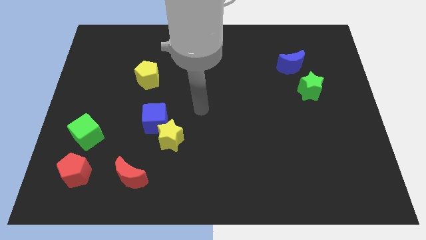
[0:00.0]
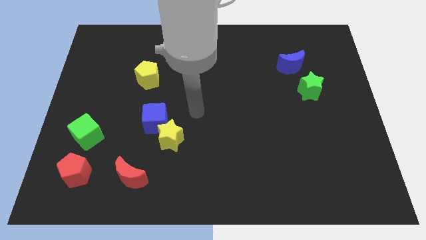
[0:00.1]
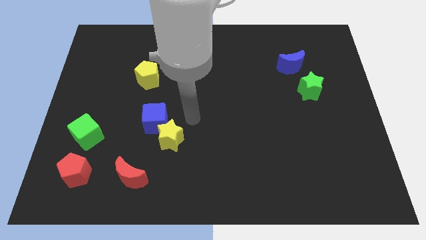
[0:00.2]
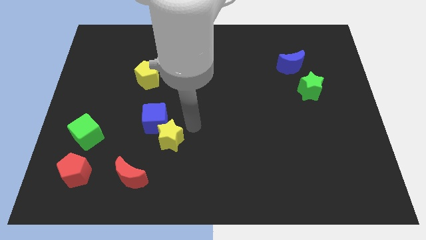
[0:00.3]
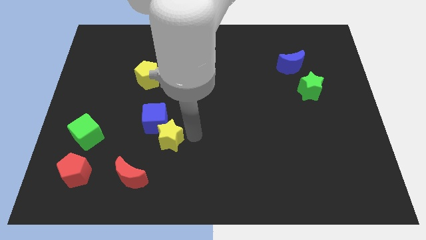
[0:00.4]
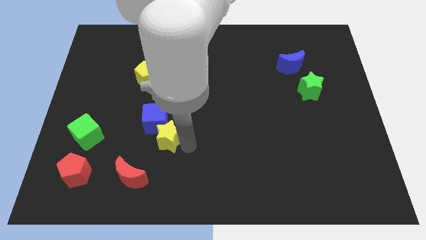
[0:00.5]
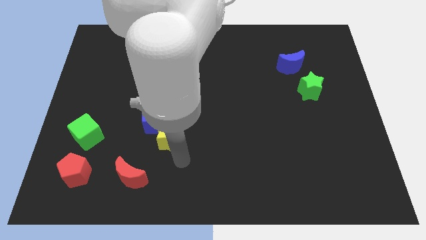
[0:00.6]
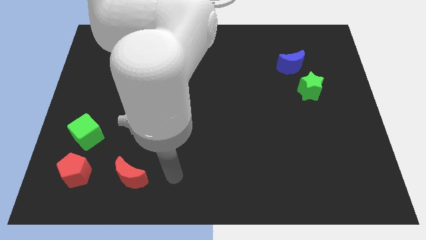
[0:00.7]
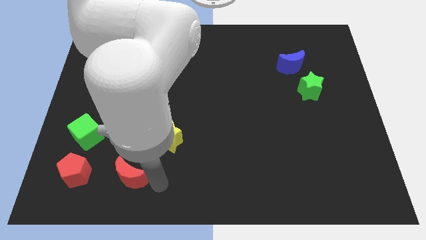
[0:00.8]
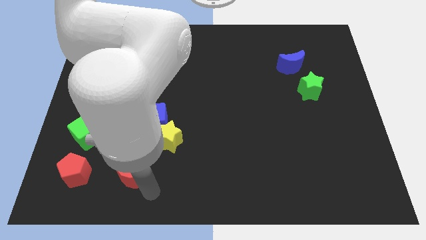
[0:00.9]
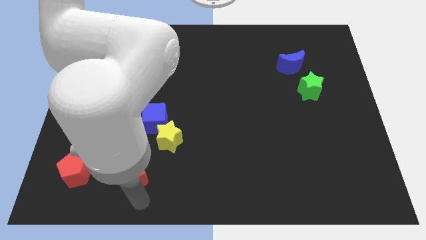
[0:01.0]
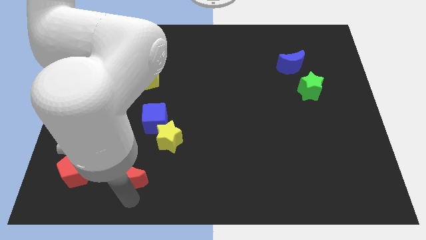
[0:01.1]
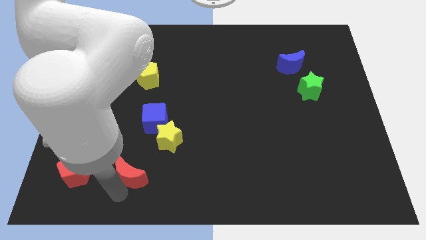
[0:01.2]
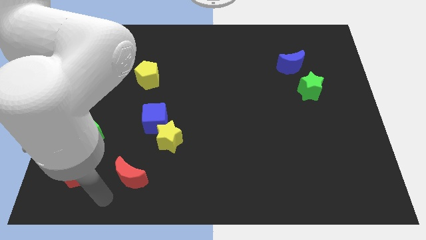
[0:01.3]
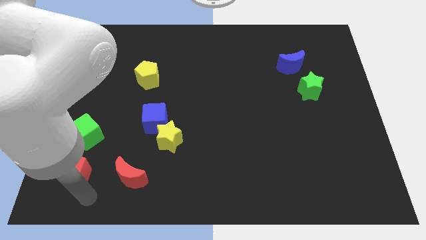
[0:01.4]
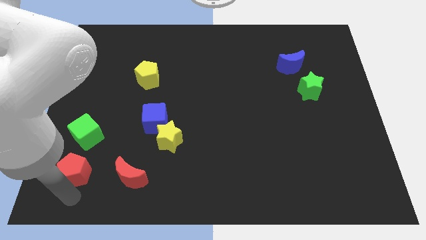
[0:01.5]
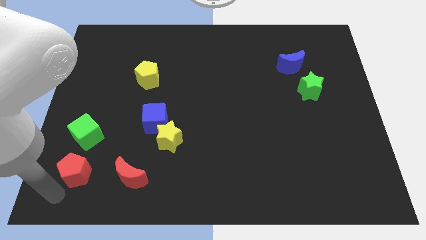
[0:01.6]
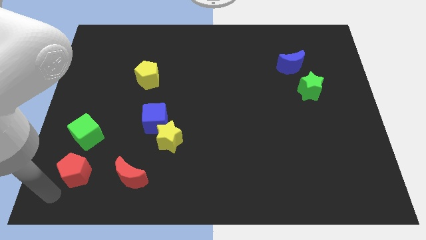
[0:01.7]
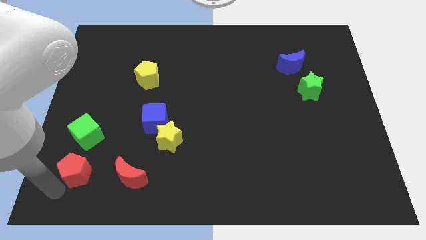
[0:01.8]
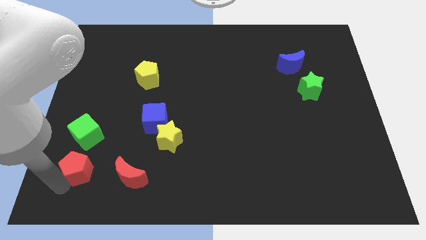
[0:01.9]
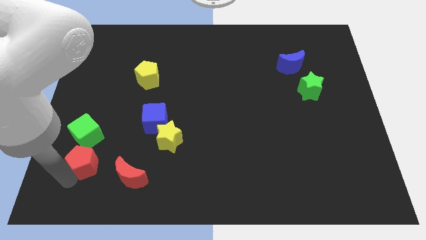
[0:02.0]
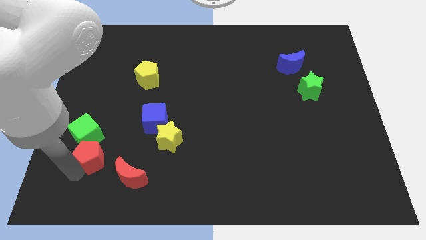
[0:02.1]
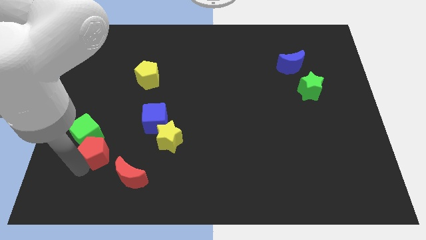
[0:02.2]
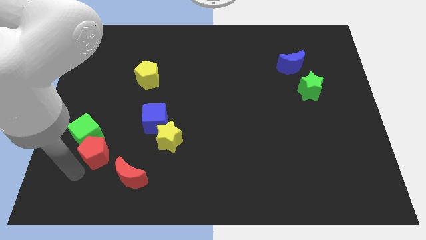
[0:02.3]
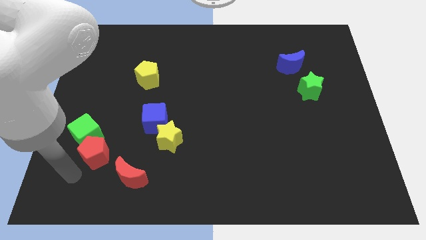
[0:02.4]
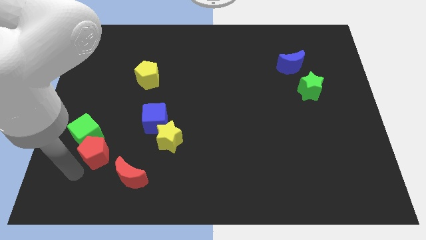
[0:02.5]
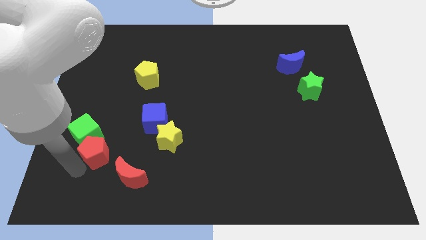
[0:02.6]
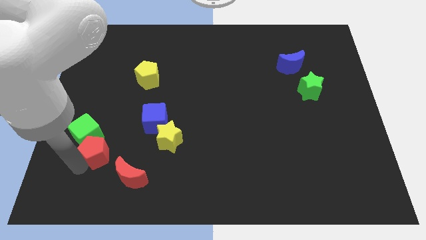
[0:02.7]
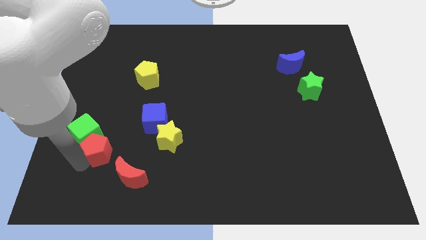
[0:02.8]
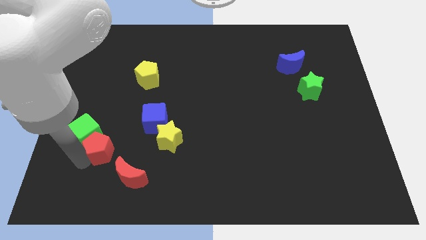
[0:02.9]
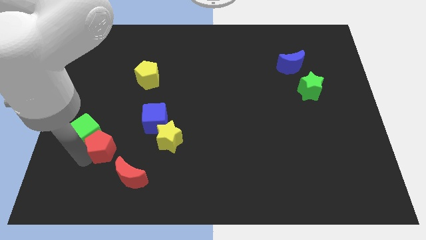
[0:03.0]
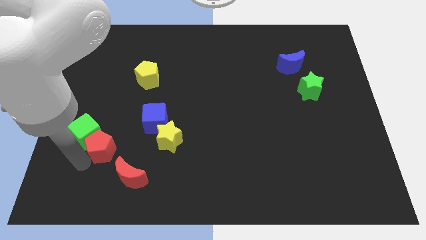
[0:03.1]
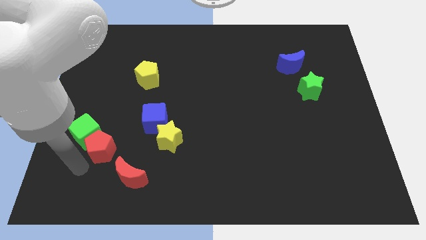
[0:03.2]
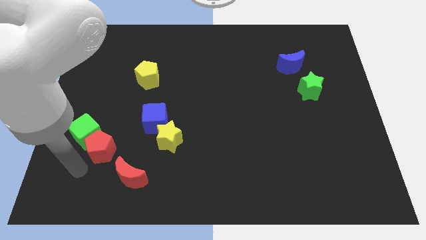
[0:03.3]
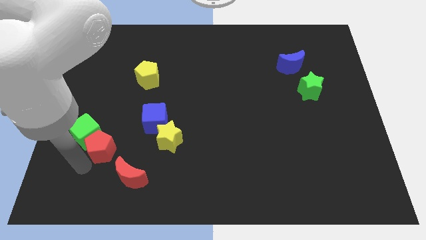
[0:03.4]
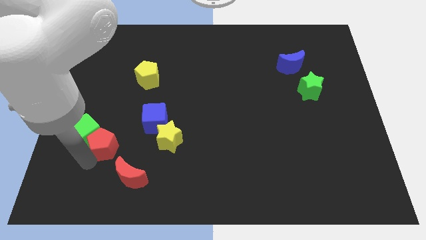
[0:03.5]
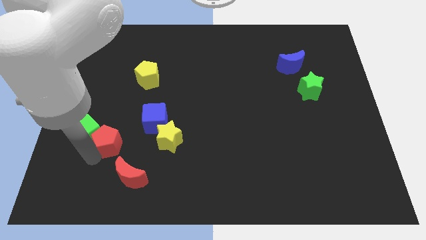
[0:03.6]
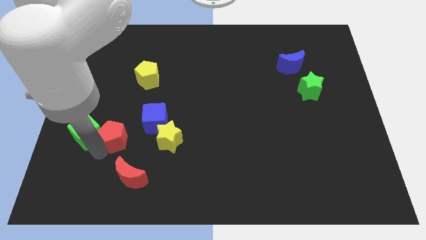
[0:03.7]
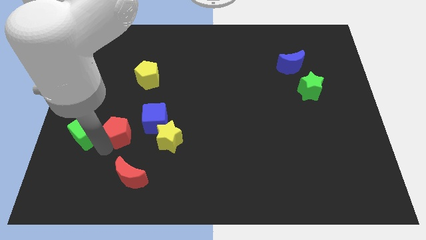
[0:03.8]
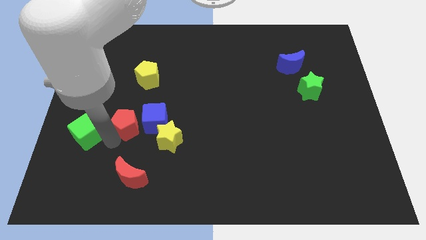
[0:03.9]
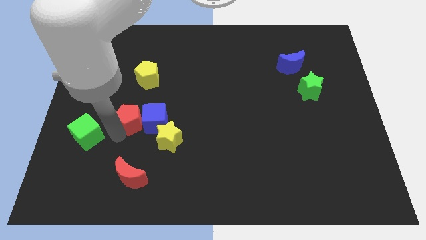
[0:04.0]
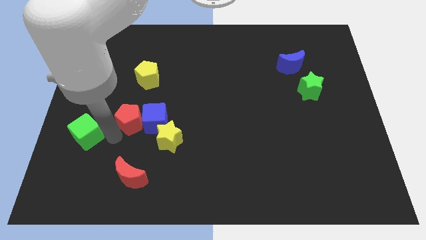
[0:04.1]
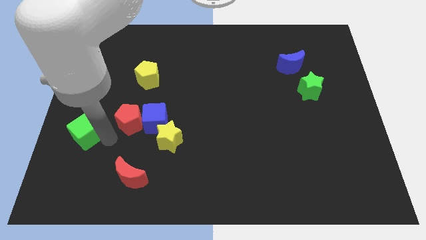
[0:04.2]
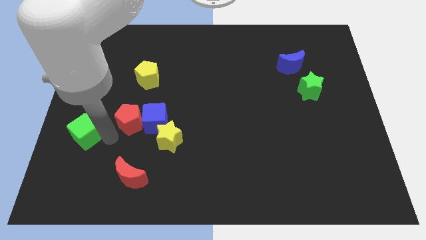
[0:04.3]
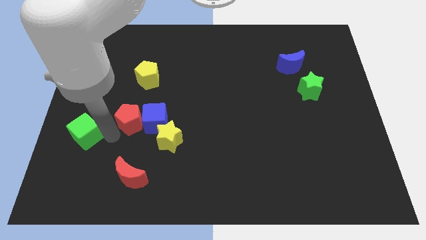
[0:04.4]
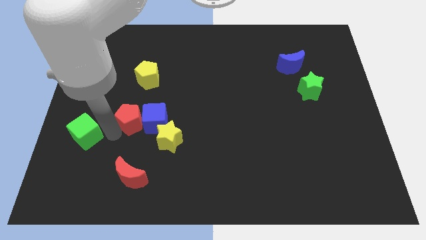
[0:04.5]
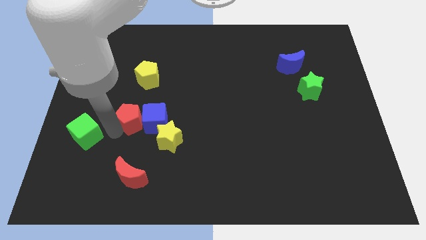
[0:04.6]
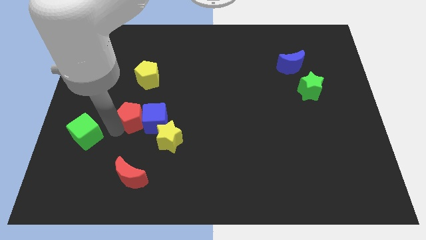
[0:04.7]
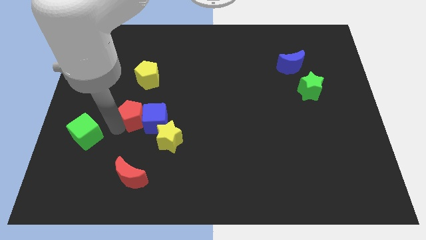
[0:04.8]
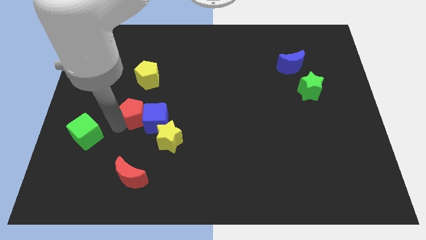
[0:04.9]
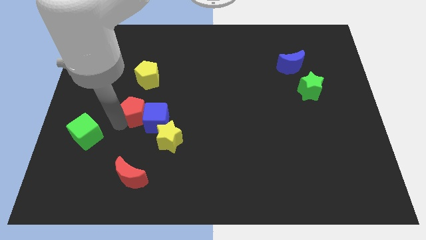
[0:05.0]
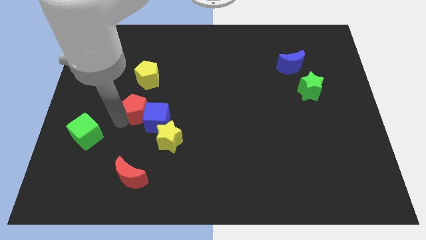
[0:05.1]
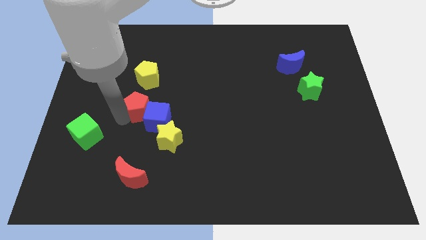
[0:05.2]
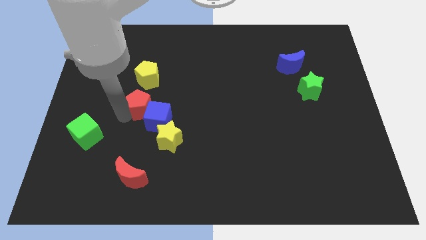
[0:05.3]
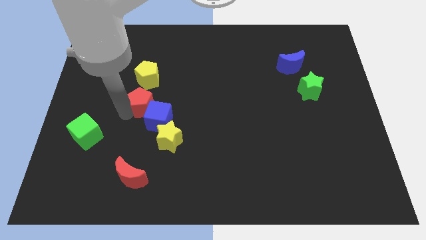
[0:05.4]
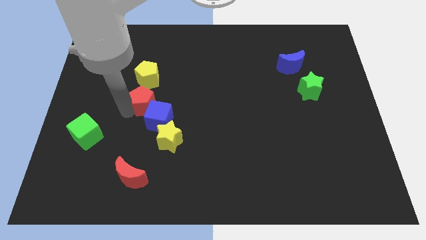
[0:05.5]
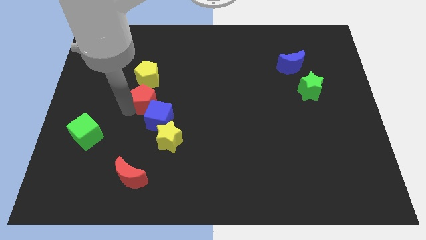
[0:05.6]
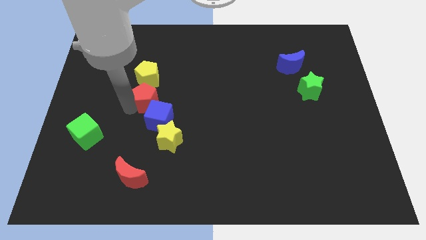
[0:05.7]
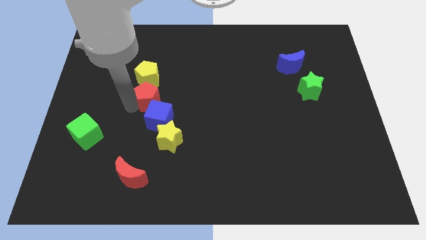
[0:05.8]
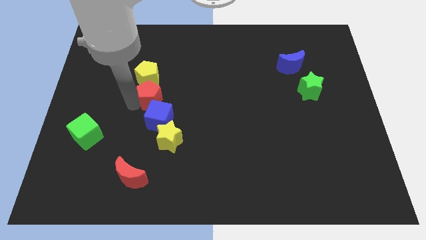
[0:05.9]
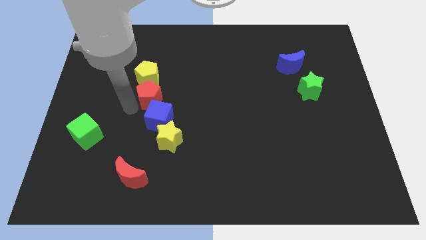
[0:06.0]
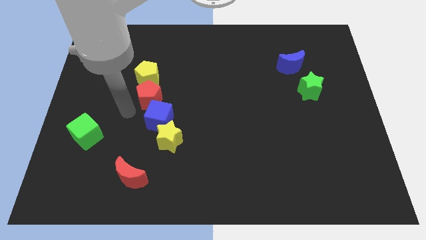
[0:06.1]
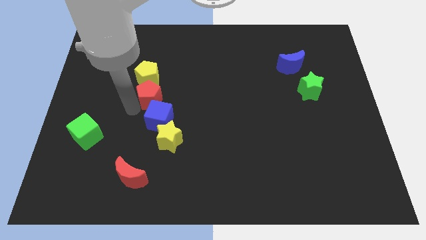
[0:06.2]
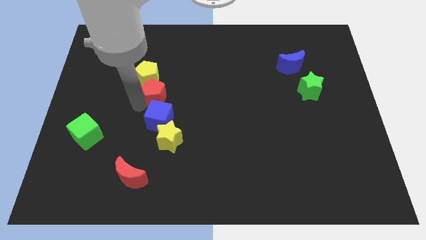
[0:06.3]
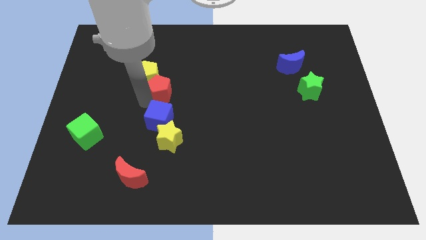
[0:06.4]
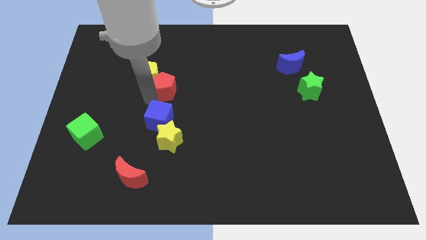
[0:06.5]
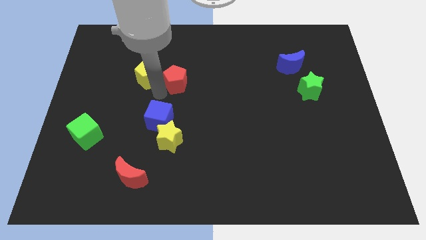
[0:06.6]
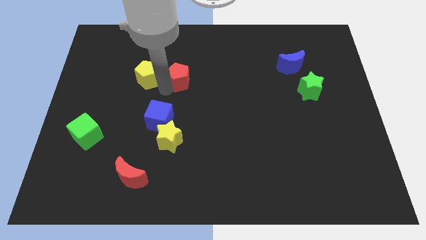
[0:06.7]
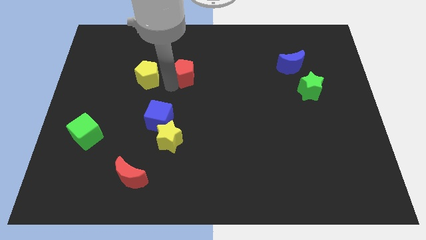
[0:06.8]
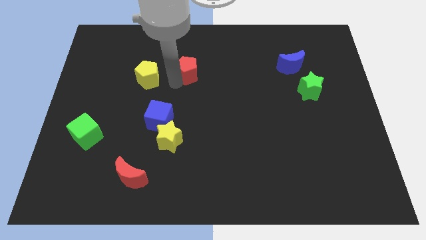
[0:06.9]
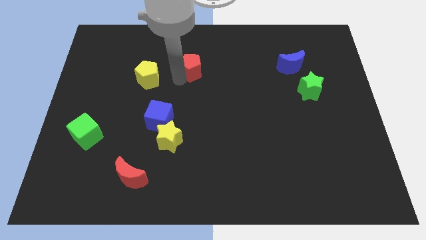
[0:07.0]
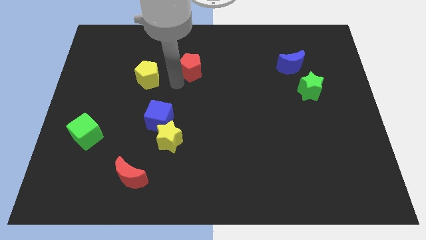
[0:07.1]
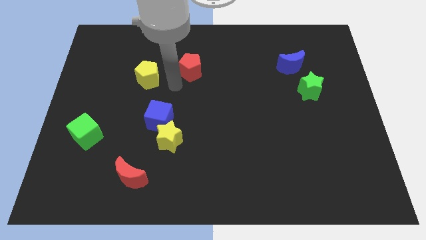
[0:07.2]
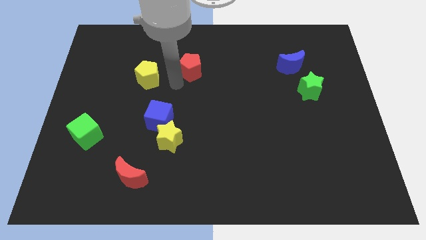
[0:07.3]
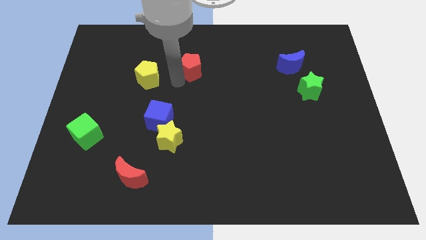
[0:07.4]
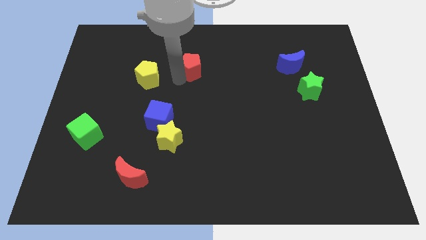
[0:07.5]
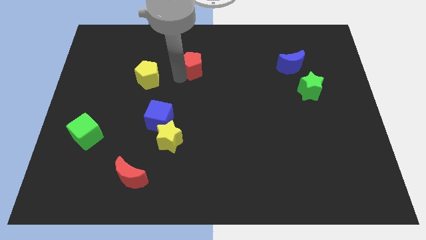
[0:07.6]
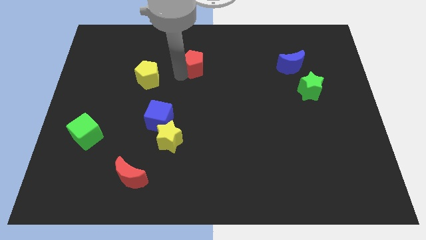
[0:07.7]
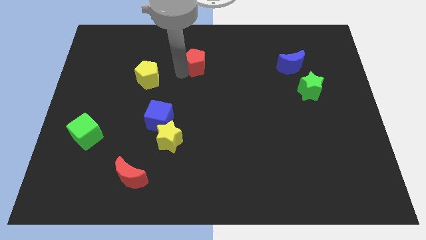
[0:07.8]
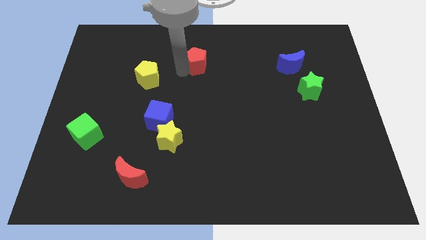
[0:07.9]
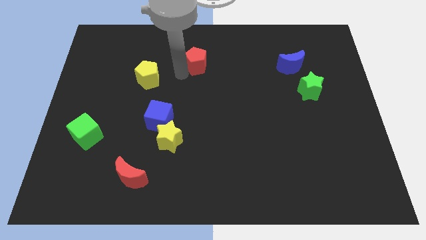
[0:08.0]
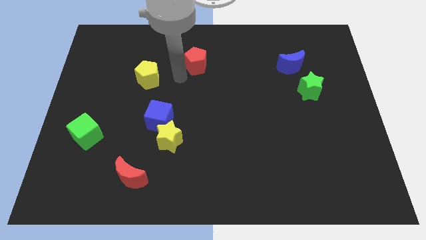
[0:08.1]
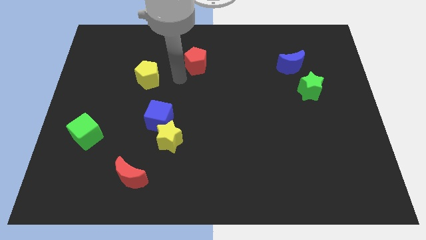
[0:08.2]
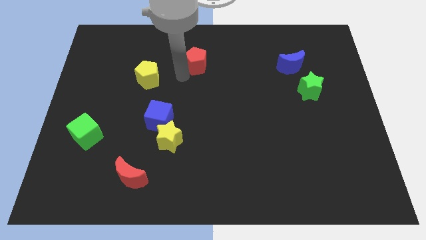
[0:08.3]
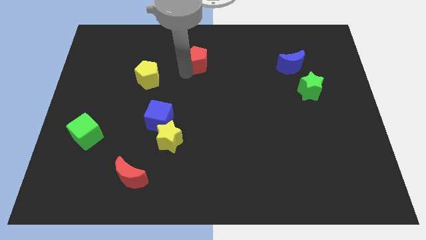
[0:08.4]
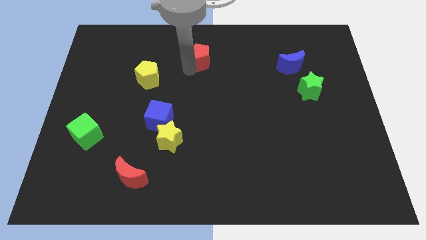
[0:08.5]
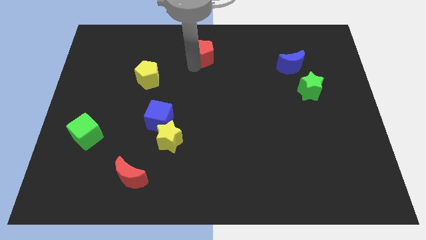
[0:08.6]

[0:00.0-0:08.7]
push the red pentagon to the top
